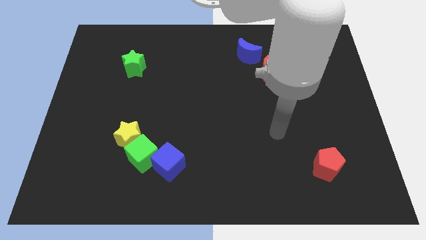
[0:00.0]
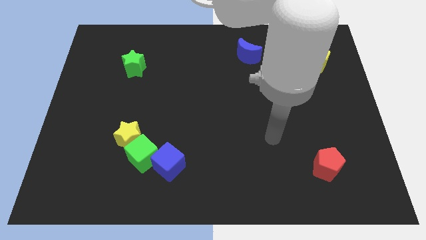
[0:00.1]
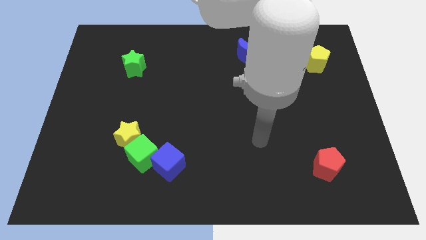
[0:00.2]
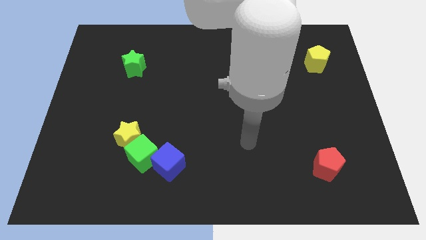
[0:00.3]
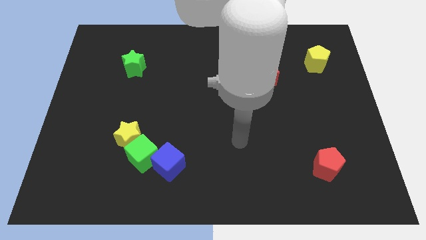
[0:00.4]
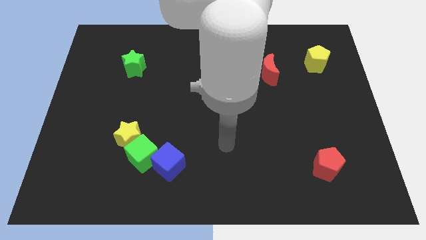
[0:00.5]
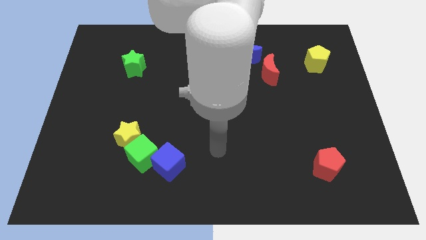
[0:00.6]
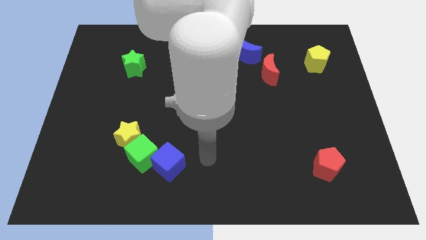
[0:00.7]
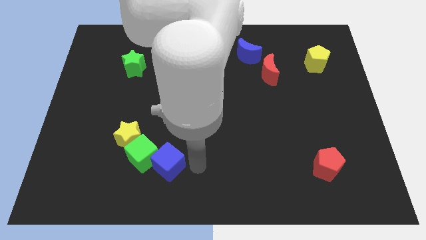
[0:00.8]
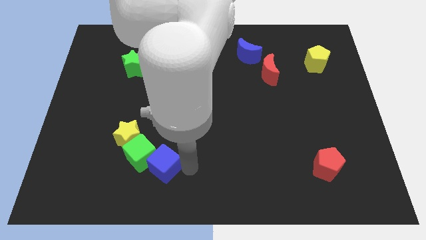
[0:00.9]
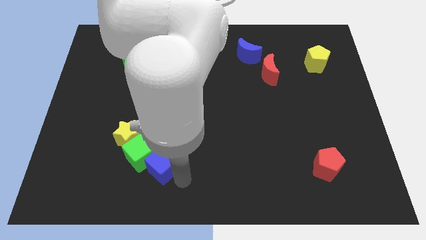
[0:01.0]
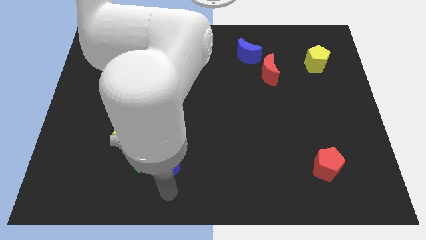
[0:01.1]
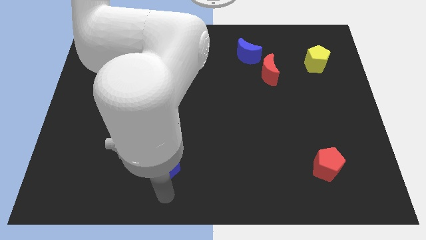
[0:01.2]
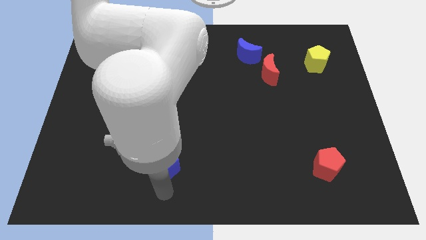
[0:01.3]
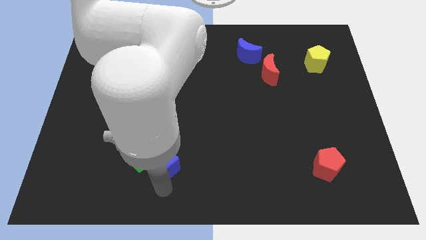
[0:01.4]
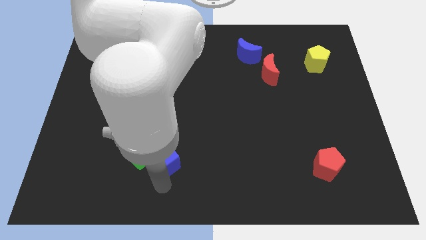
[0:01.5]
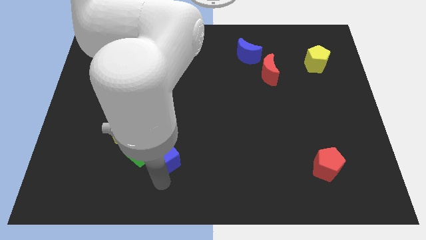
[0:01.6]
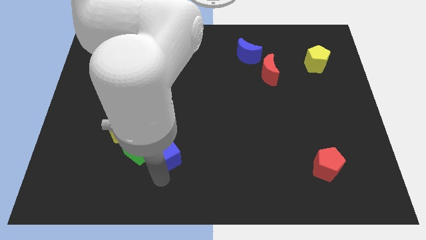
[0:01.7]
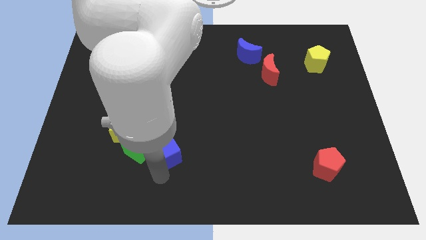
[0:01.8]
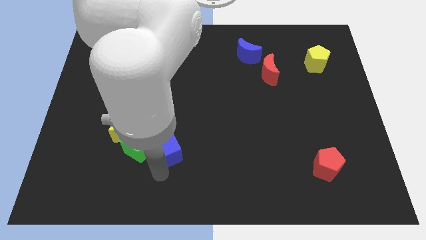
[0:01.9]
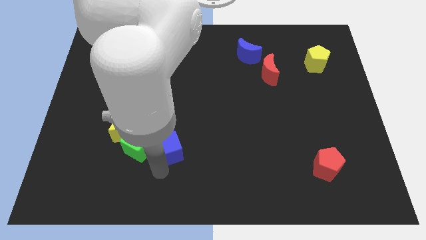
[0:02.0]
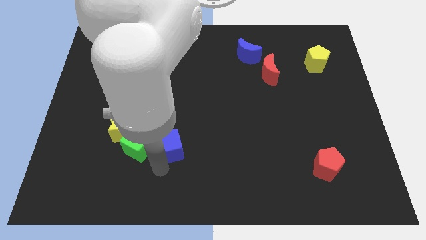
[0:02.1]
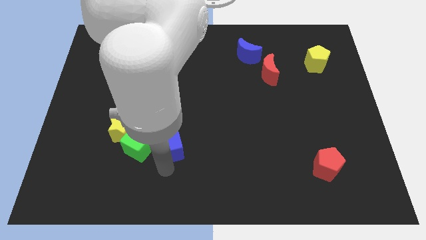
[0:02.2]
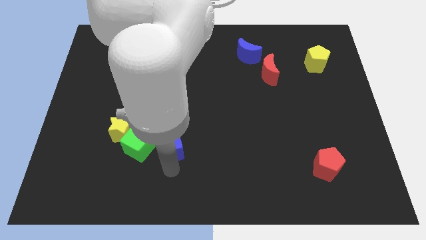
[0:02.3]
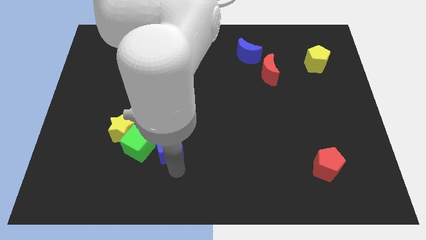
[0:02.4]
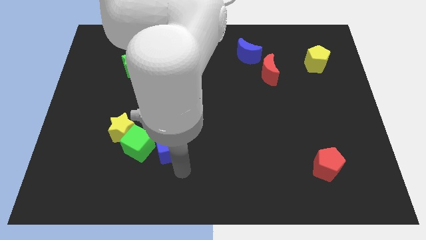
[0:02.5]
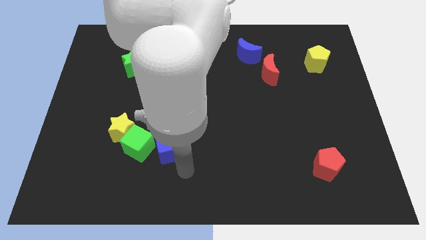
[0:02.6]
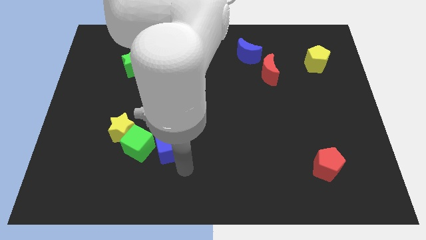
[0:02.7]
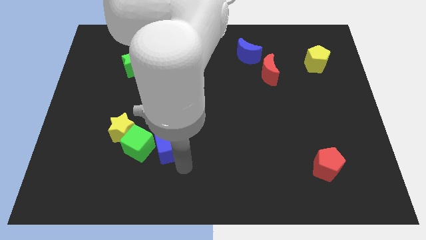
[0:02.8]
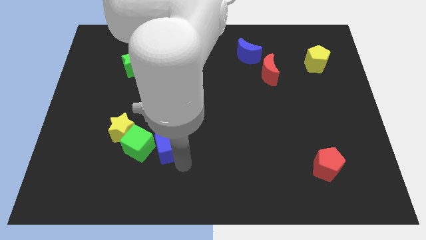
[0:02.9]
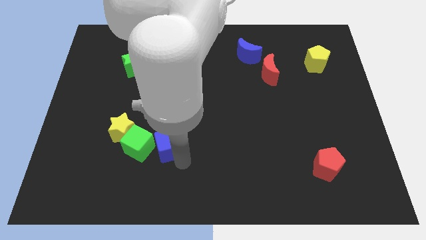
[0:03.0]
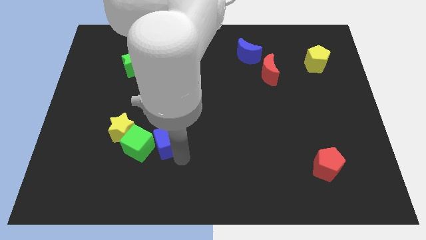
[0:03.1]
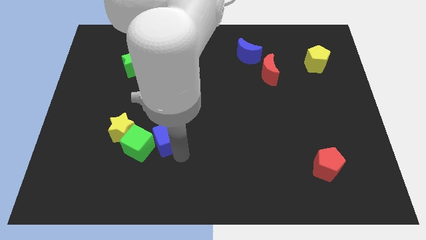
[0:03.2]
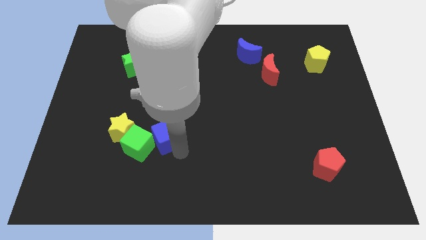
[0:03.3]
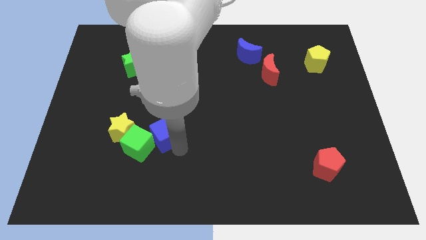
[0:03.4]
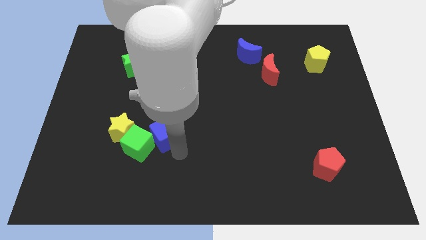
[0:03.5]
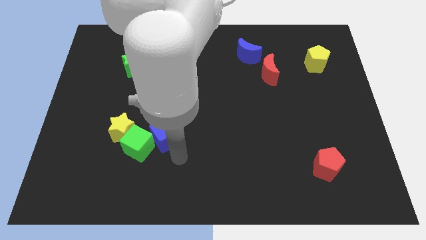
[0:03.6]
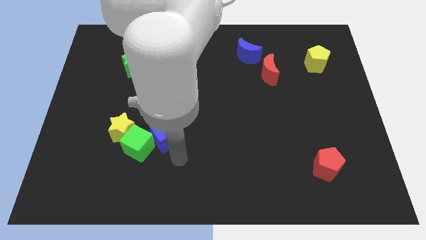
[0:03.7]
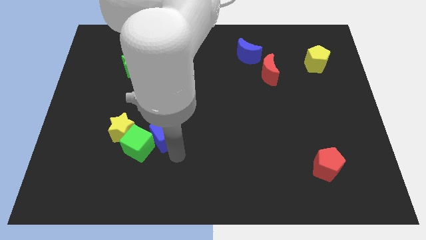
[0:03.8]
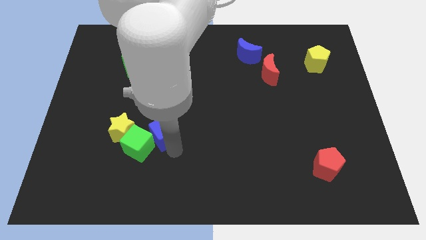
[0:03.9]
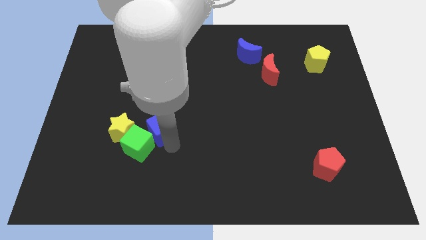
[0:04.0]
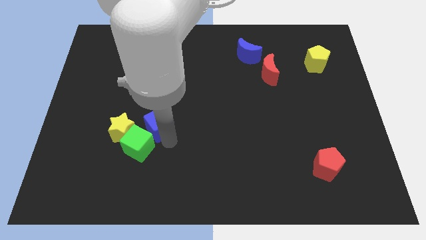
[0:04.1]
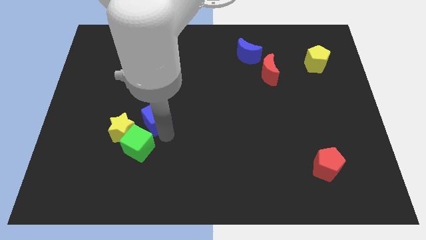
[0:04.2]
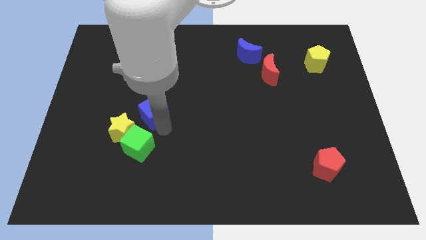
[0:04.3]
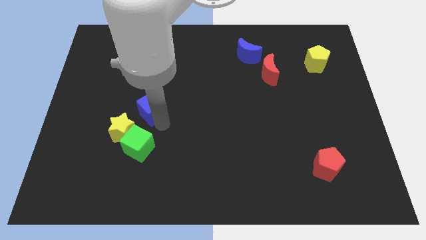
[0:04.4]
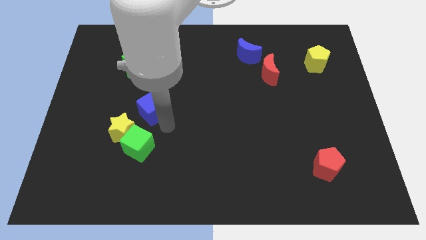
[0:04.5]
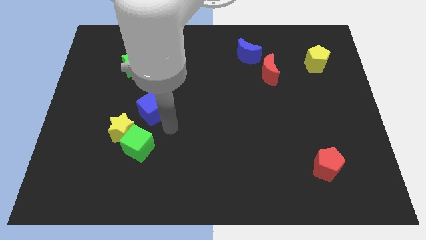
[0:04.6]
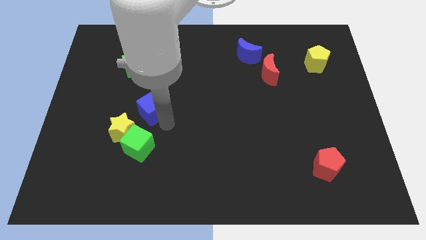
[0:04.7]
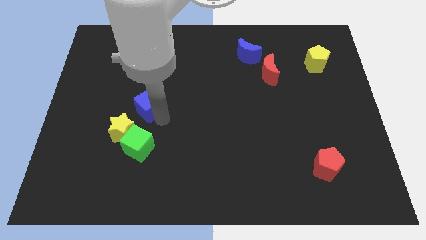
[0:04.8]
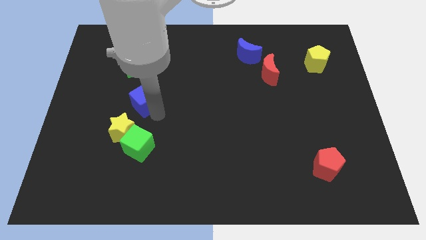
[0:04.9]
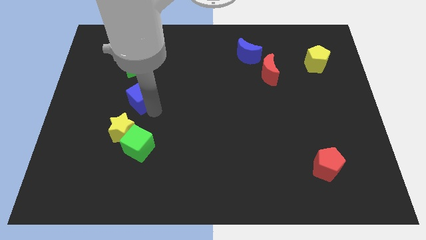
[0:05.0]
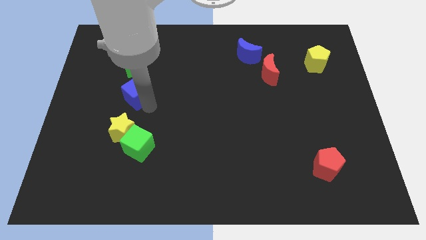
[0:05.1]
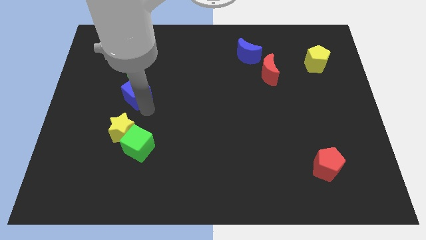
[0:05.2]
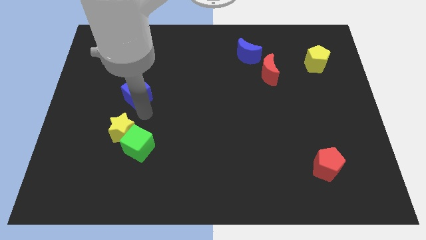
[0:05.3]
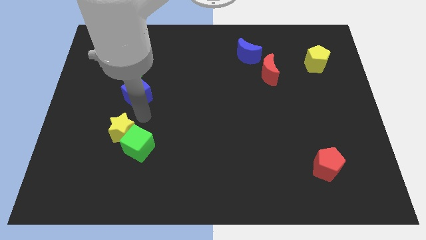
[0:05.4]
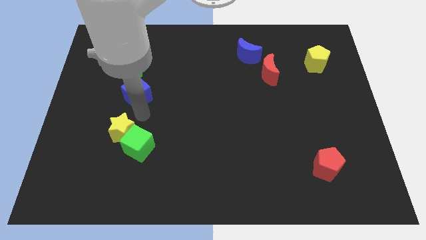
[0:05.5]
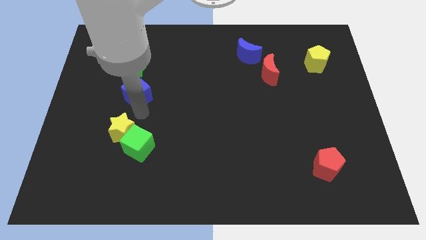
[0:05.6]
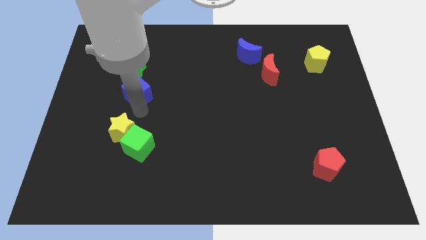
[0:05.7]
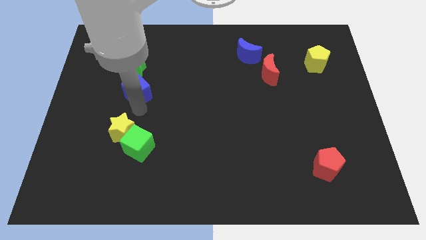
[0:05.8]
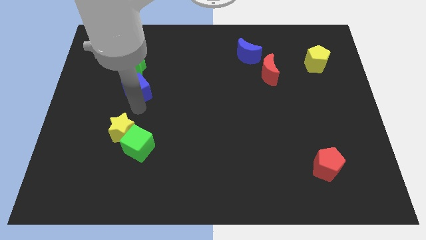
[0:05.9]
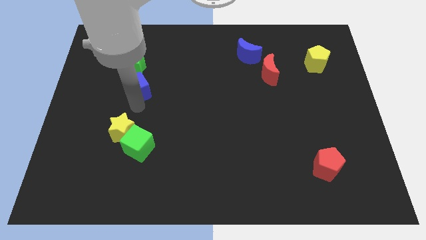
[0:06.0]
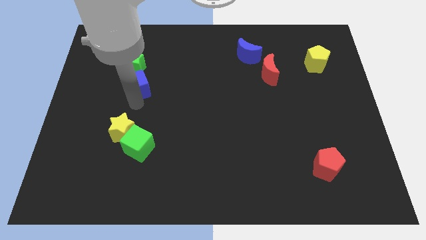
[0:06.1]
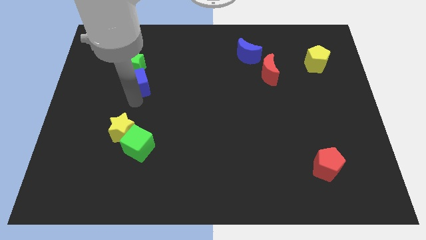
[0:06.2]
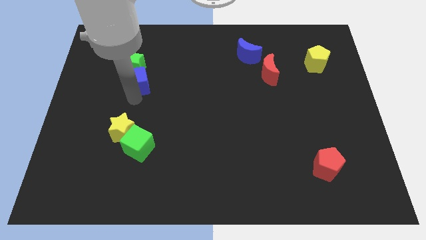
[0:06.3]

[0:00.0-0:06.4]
slide the blue cube close to the green star

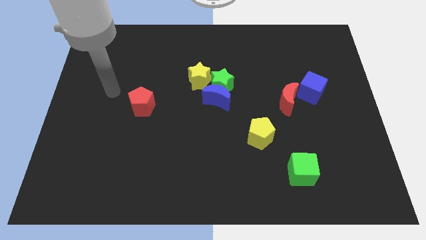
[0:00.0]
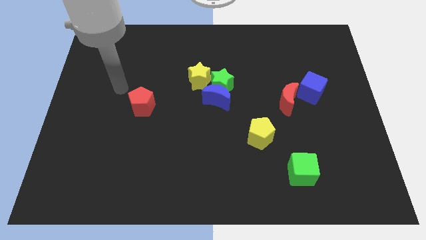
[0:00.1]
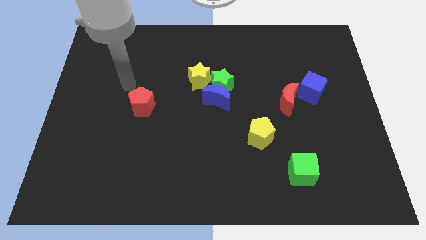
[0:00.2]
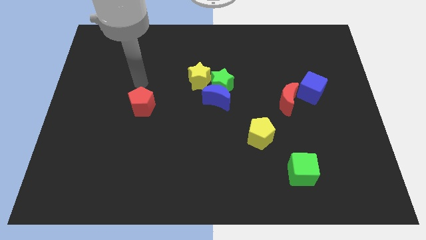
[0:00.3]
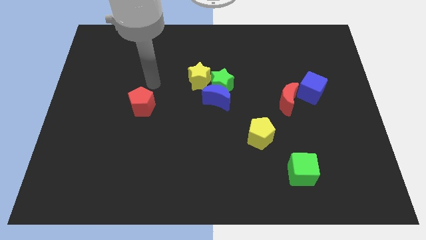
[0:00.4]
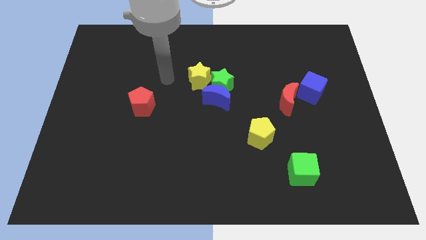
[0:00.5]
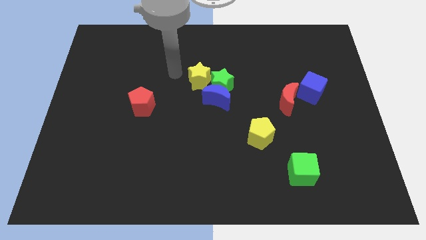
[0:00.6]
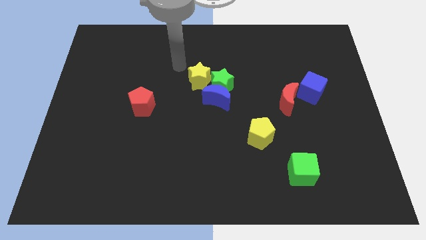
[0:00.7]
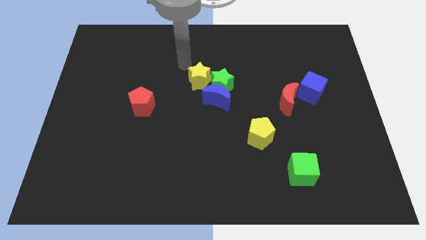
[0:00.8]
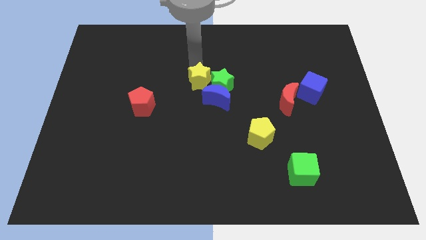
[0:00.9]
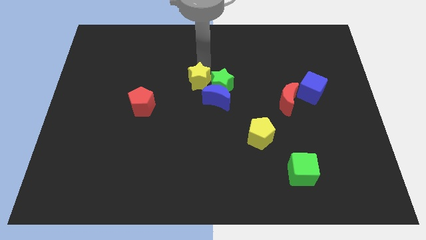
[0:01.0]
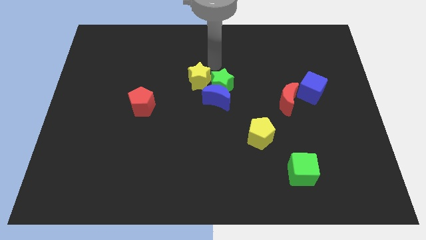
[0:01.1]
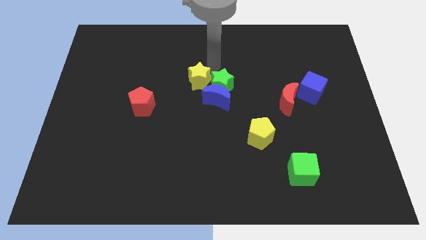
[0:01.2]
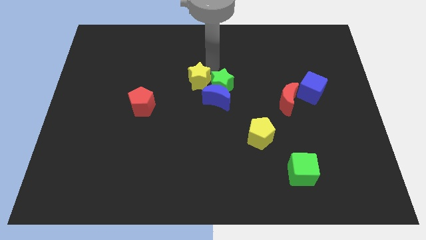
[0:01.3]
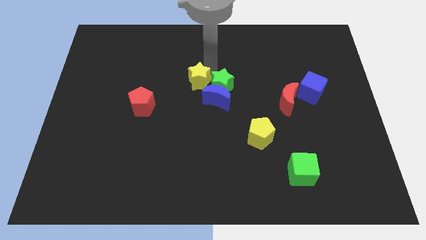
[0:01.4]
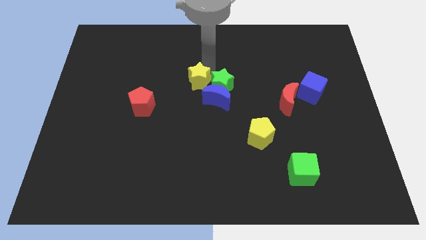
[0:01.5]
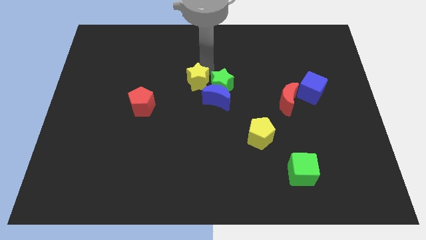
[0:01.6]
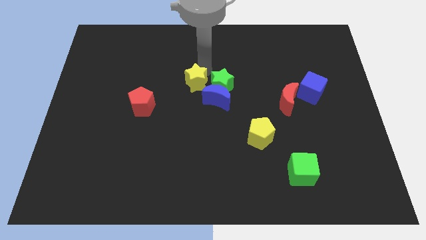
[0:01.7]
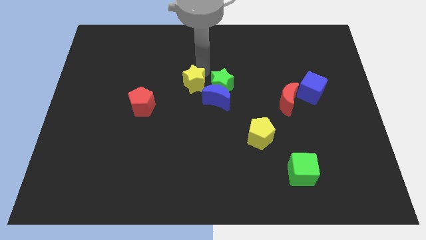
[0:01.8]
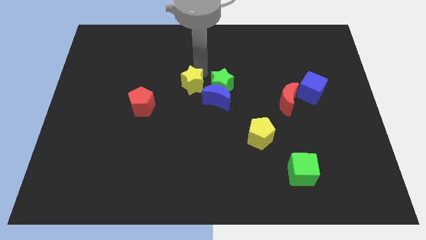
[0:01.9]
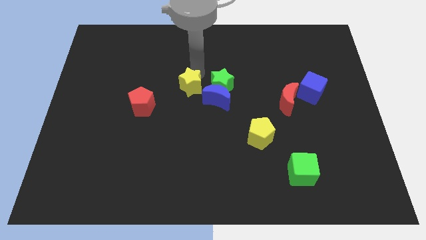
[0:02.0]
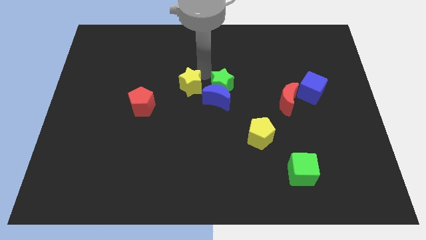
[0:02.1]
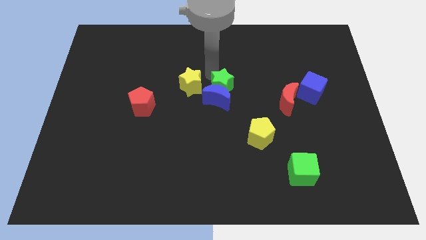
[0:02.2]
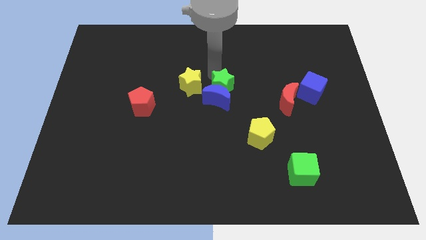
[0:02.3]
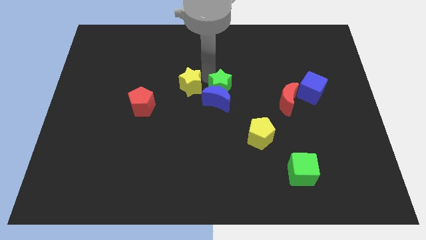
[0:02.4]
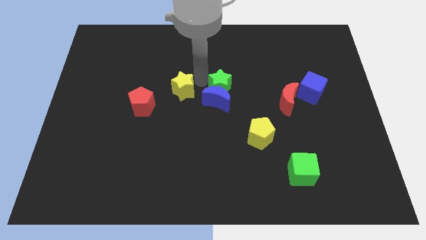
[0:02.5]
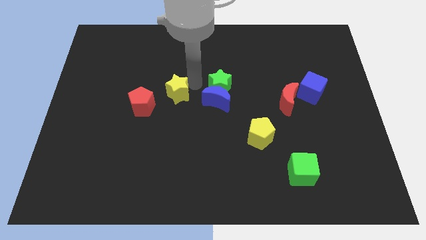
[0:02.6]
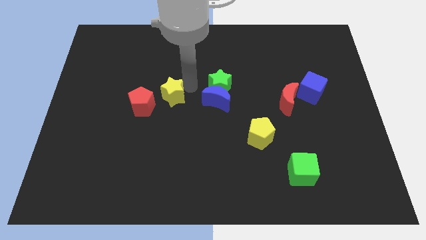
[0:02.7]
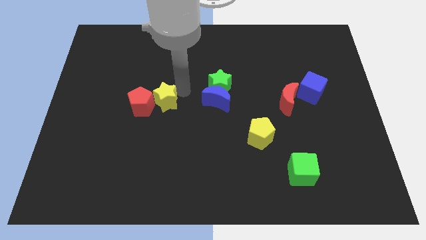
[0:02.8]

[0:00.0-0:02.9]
put the yellow star towards the red pentagon
